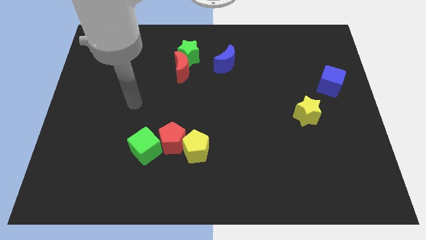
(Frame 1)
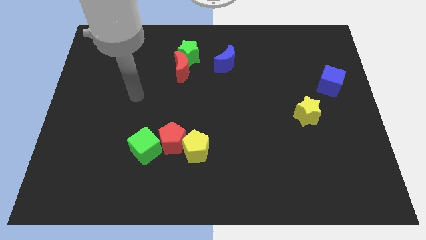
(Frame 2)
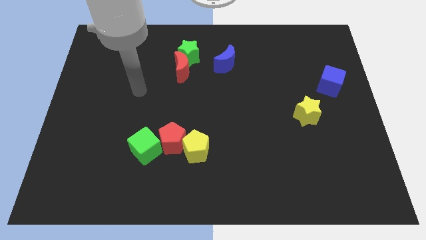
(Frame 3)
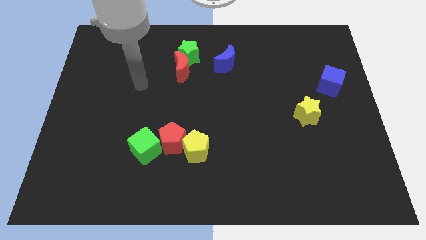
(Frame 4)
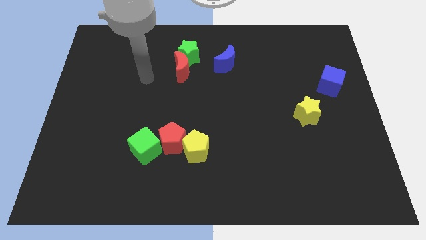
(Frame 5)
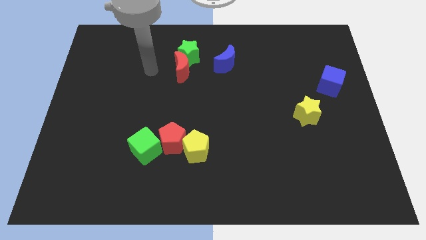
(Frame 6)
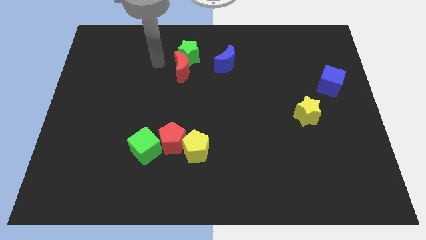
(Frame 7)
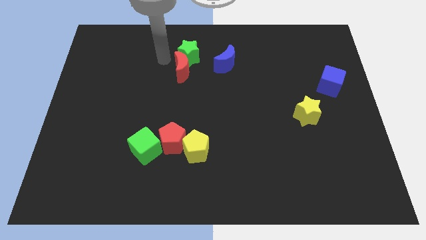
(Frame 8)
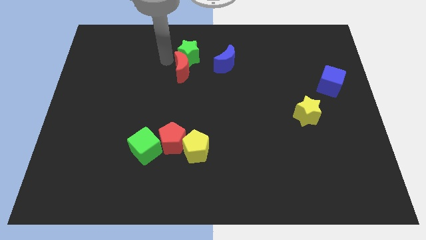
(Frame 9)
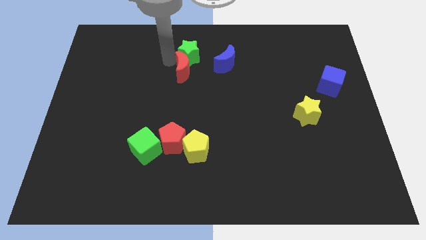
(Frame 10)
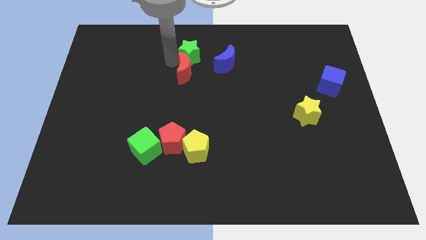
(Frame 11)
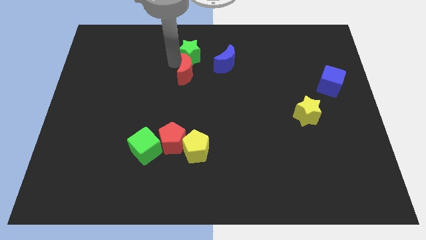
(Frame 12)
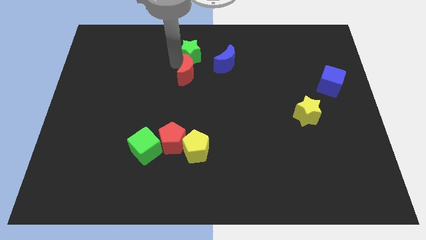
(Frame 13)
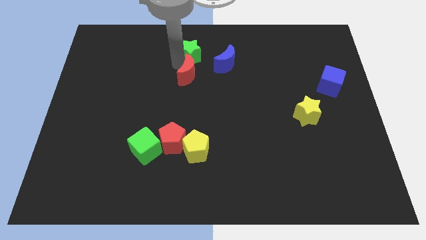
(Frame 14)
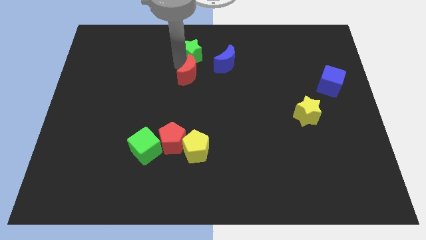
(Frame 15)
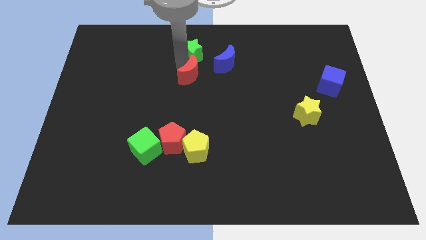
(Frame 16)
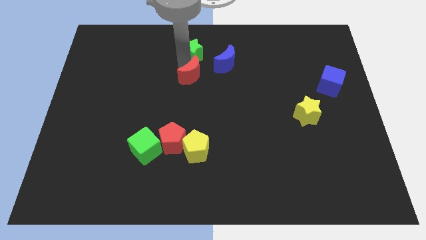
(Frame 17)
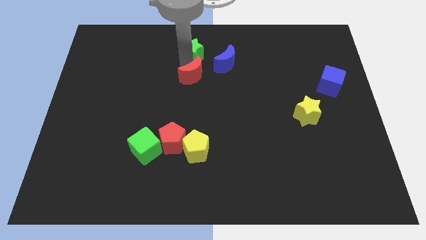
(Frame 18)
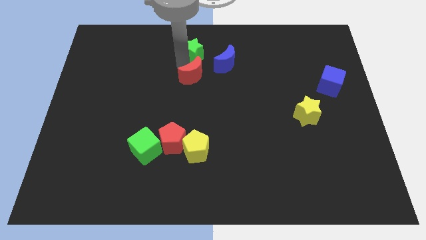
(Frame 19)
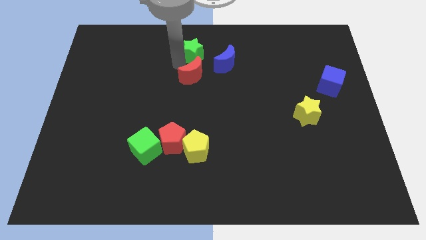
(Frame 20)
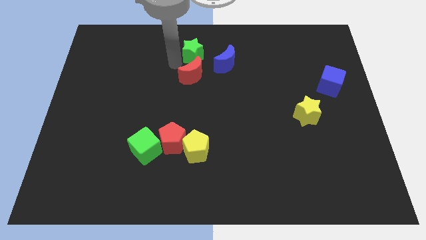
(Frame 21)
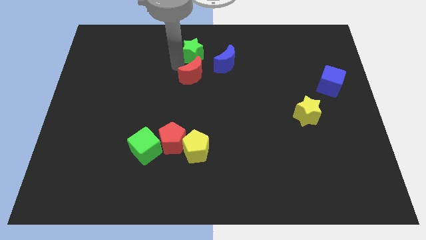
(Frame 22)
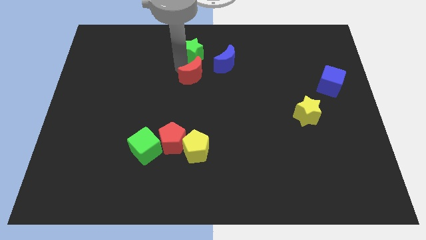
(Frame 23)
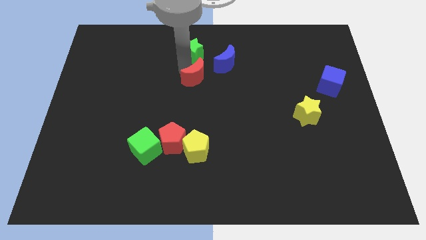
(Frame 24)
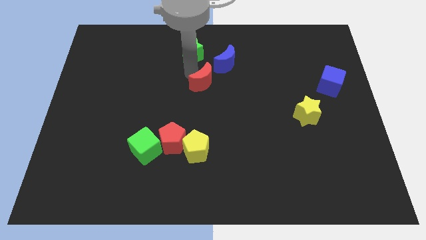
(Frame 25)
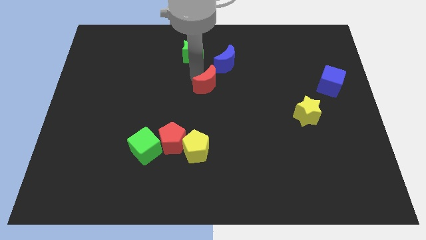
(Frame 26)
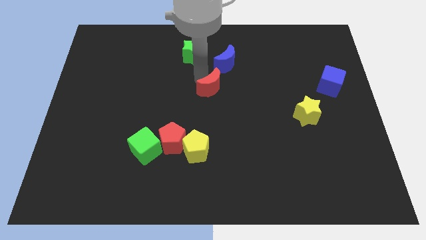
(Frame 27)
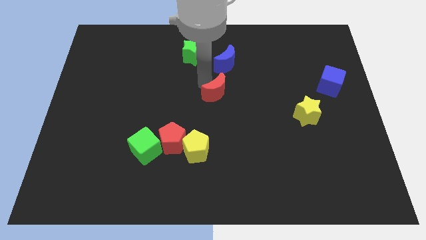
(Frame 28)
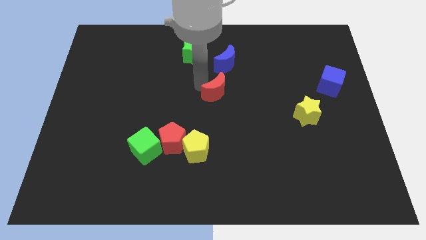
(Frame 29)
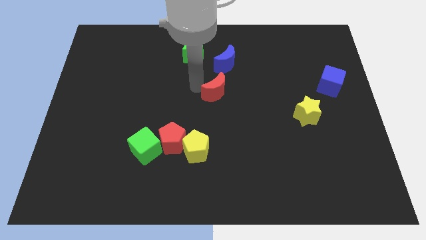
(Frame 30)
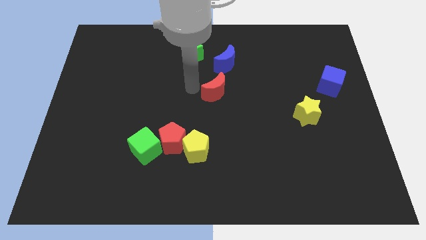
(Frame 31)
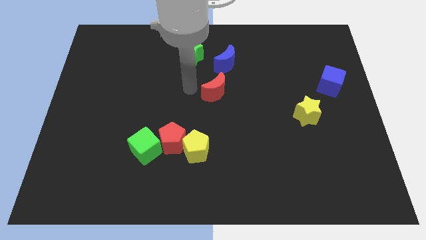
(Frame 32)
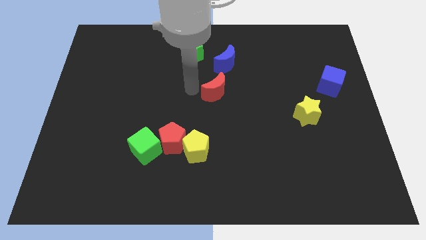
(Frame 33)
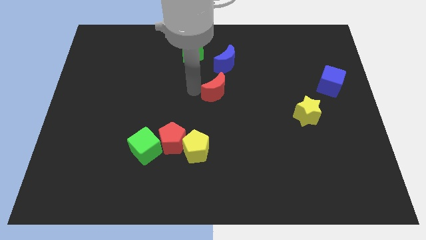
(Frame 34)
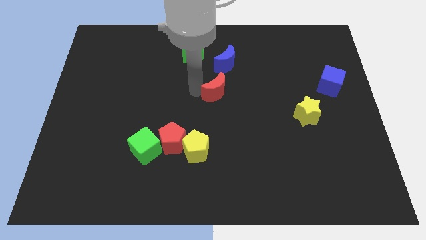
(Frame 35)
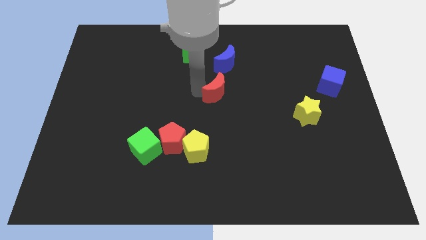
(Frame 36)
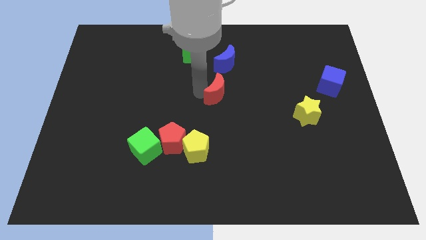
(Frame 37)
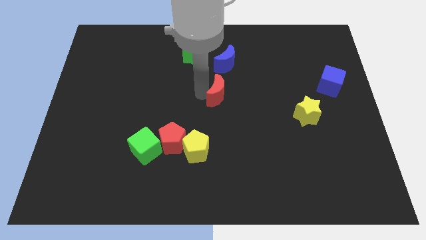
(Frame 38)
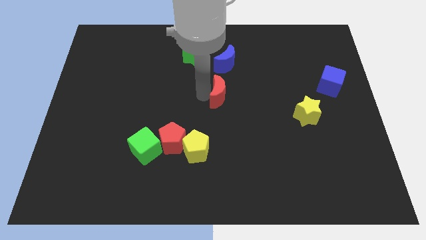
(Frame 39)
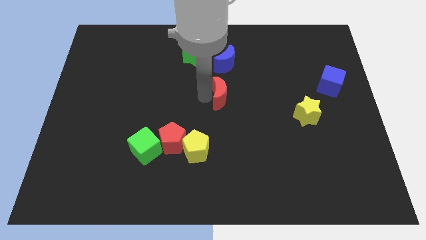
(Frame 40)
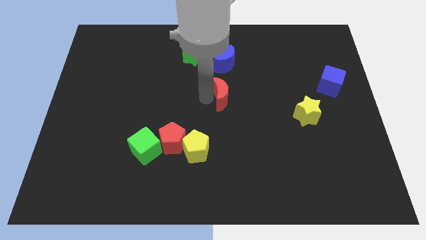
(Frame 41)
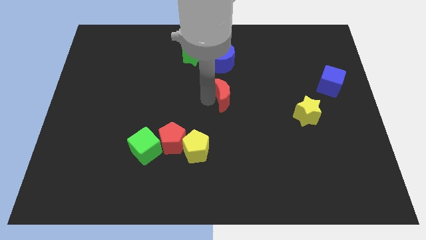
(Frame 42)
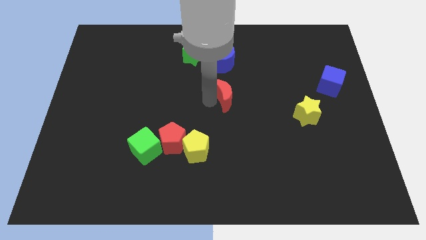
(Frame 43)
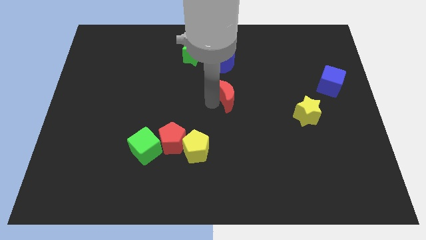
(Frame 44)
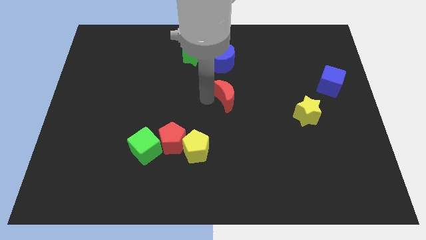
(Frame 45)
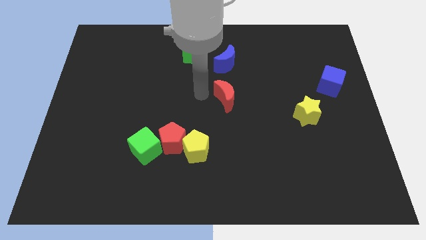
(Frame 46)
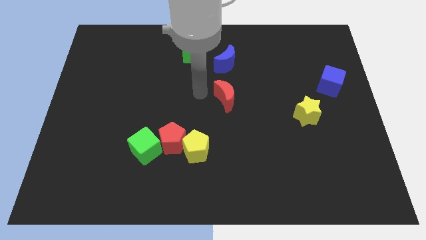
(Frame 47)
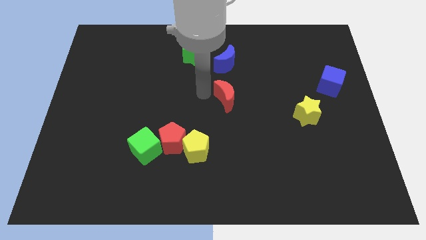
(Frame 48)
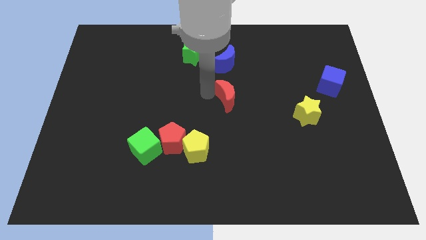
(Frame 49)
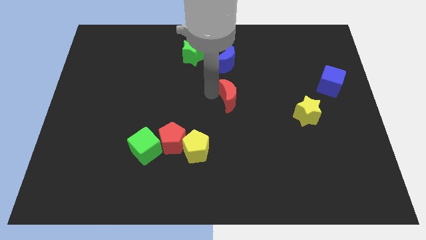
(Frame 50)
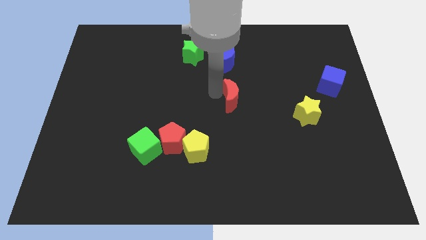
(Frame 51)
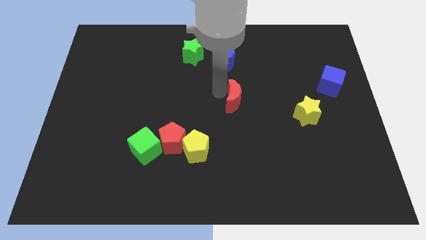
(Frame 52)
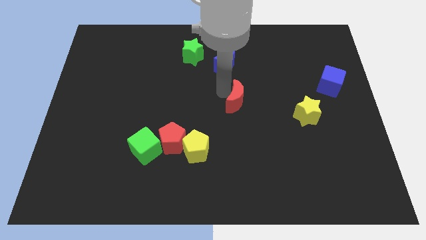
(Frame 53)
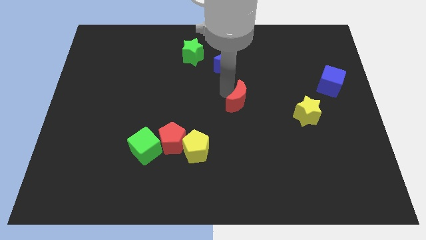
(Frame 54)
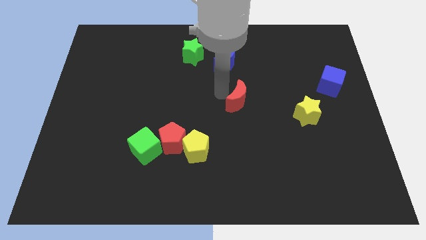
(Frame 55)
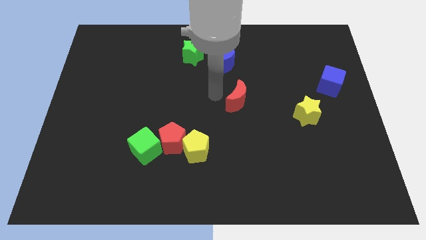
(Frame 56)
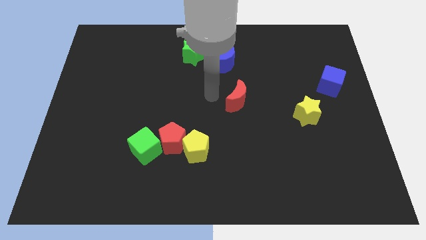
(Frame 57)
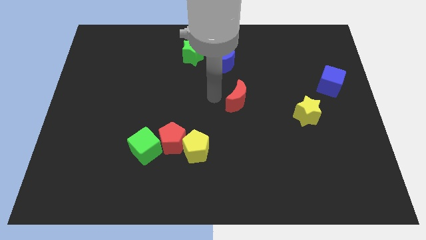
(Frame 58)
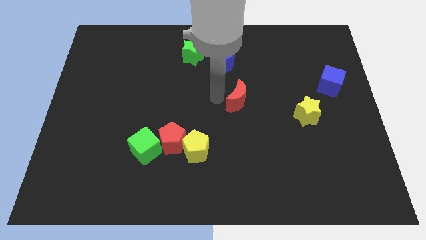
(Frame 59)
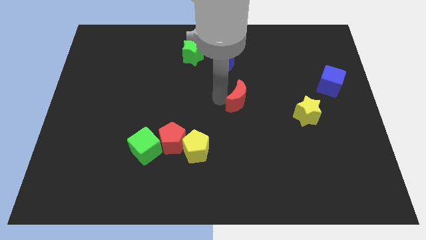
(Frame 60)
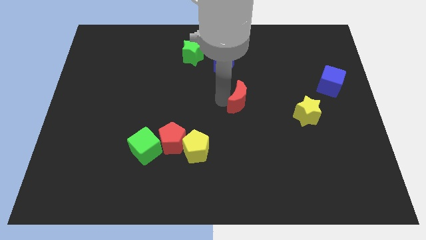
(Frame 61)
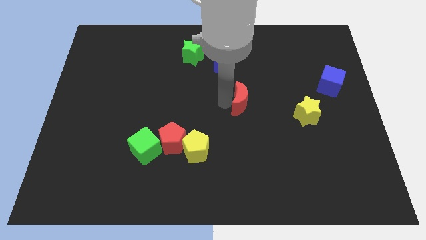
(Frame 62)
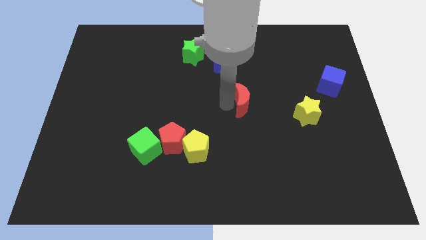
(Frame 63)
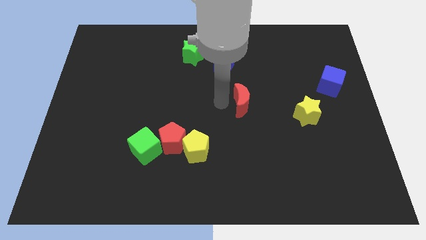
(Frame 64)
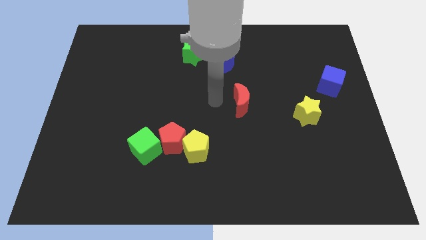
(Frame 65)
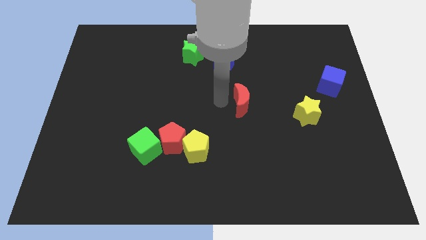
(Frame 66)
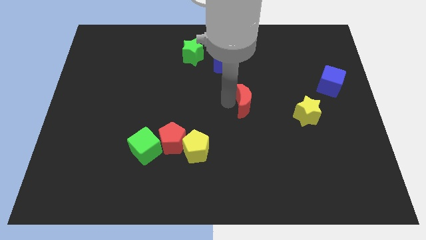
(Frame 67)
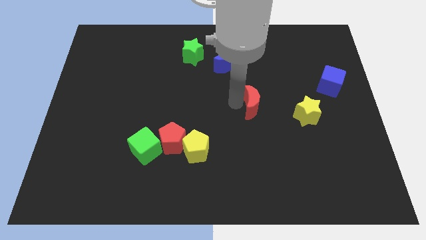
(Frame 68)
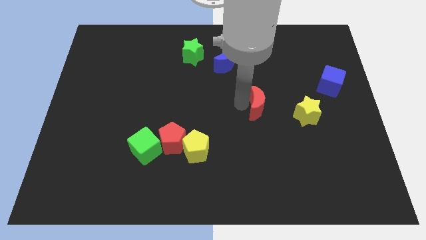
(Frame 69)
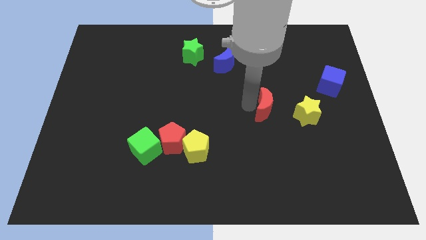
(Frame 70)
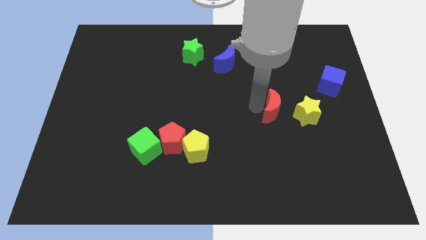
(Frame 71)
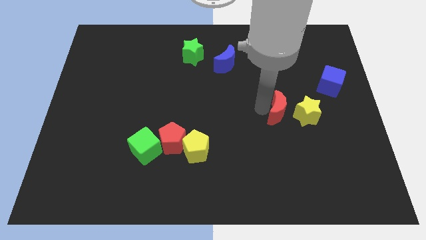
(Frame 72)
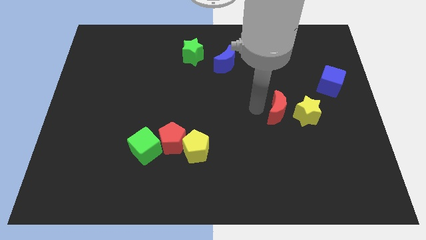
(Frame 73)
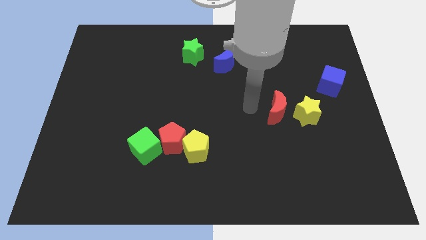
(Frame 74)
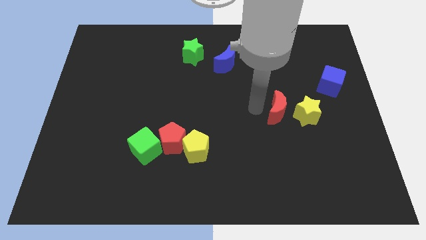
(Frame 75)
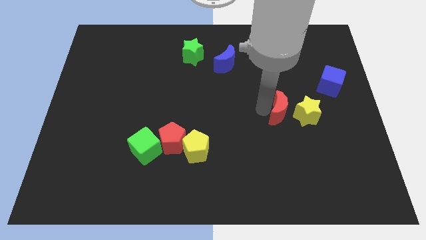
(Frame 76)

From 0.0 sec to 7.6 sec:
slide the red moon towards the yellow star
